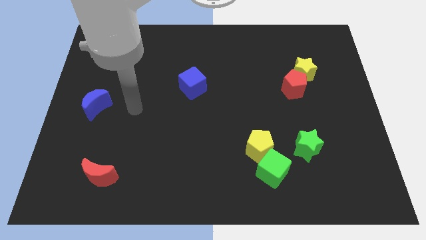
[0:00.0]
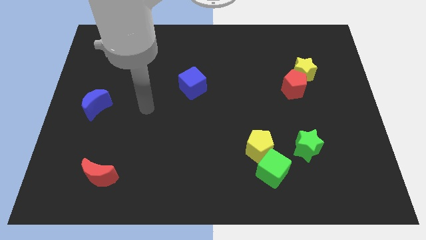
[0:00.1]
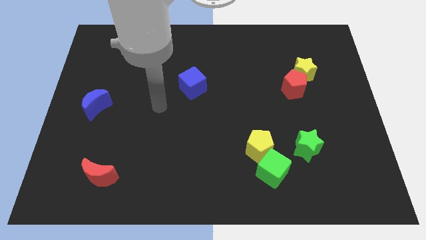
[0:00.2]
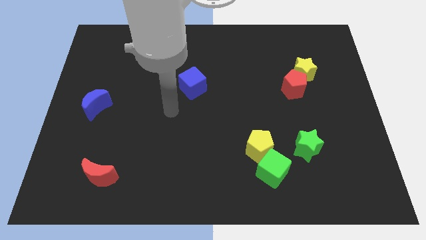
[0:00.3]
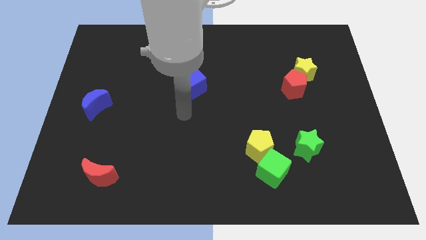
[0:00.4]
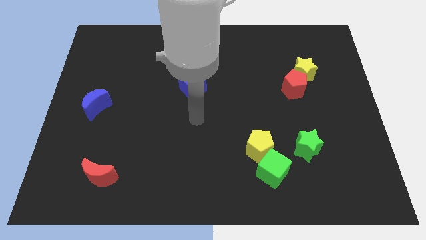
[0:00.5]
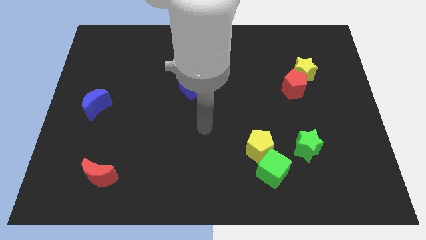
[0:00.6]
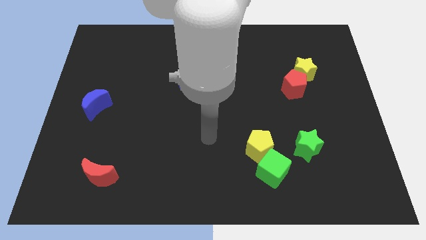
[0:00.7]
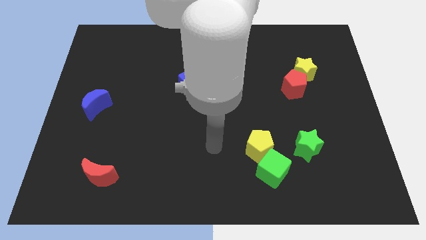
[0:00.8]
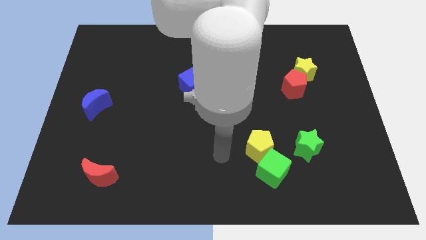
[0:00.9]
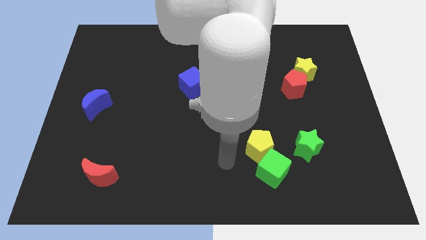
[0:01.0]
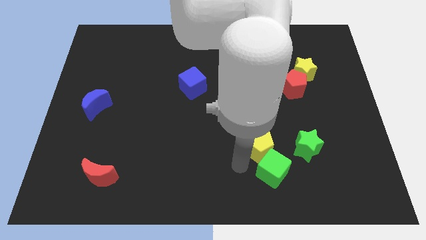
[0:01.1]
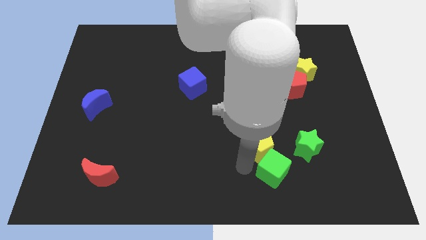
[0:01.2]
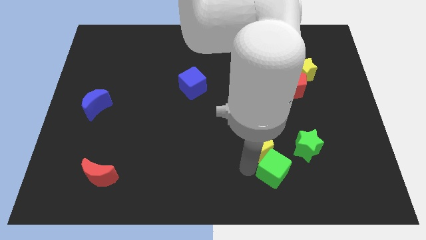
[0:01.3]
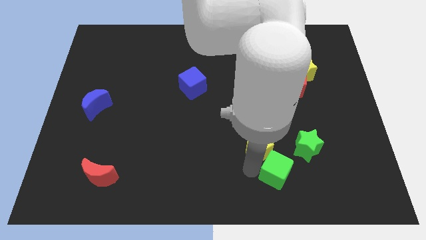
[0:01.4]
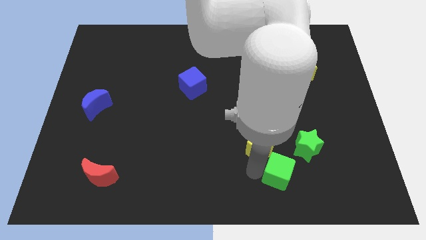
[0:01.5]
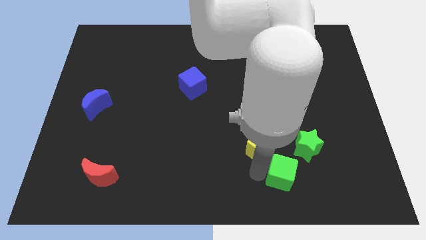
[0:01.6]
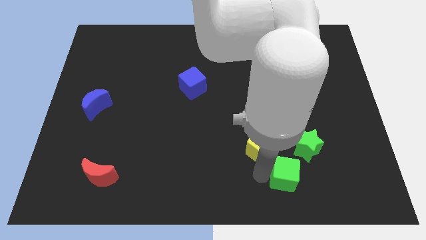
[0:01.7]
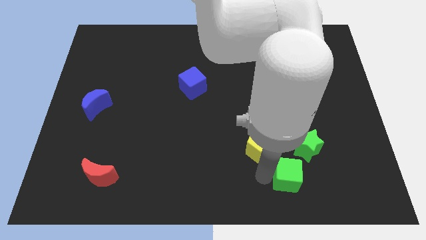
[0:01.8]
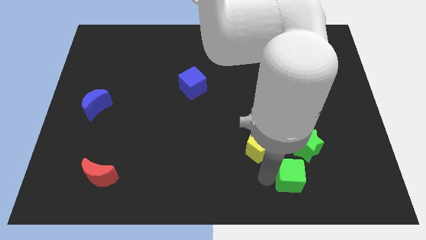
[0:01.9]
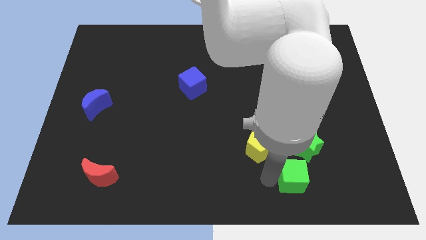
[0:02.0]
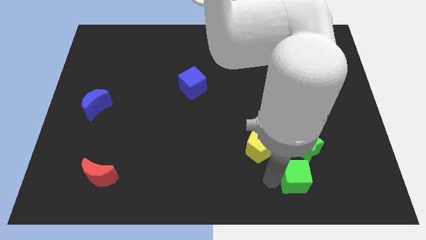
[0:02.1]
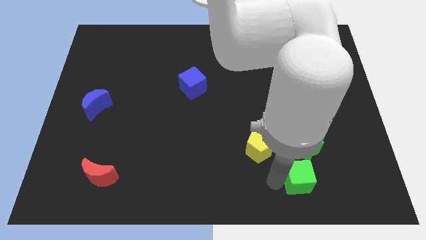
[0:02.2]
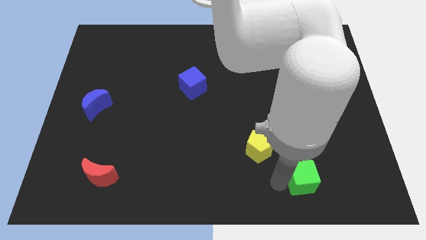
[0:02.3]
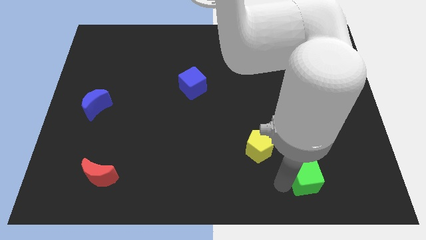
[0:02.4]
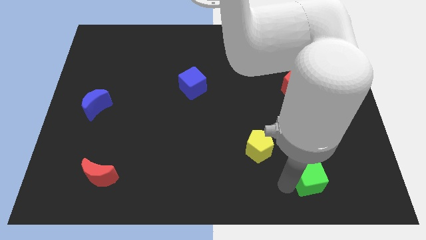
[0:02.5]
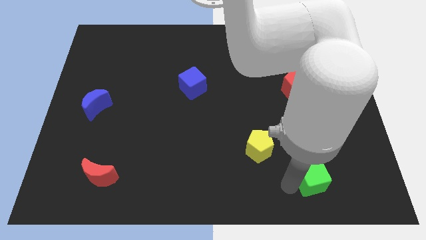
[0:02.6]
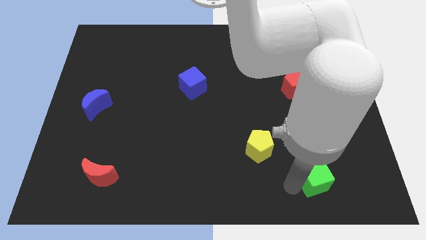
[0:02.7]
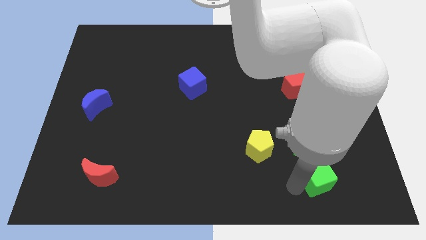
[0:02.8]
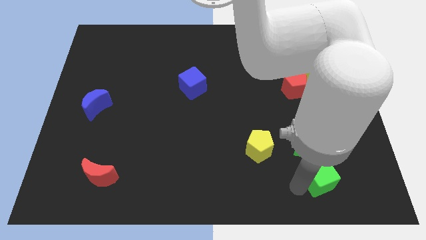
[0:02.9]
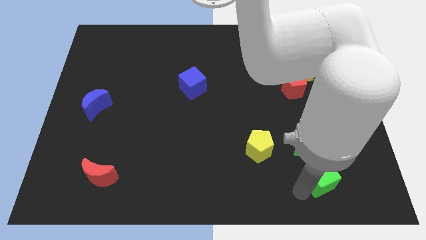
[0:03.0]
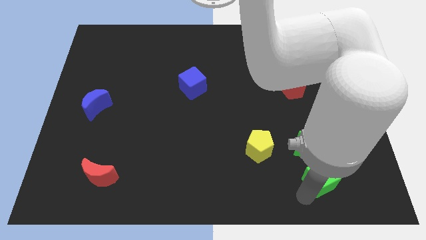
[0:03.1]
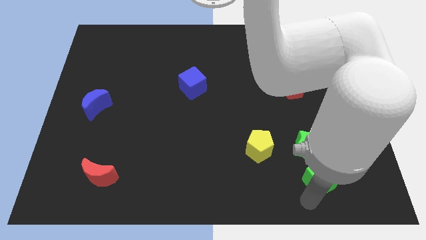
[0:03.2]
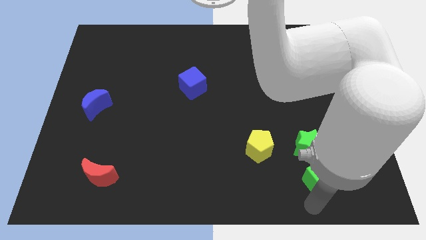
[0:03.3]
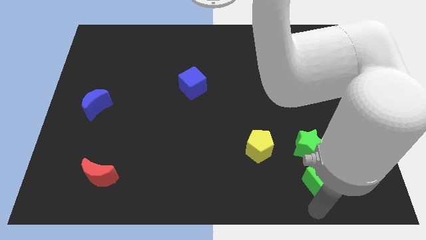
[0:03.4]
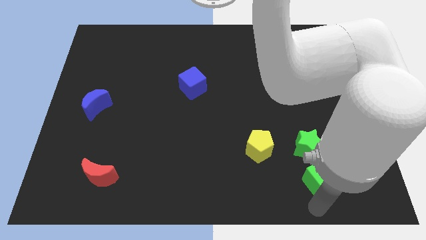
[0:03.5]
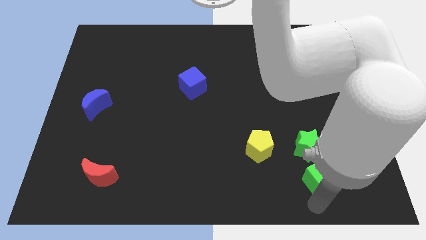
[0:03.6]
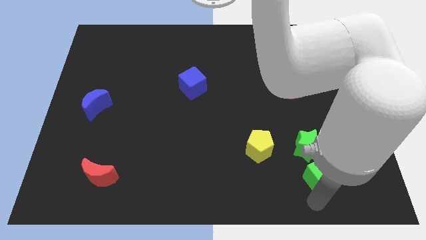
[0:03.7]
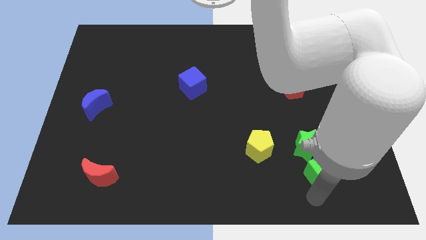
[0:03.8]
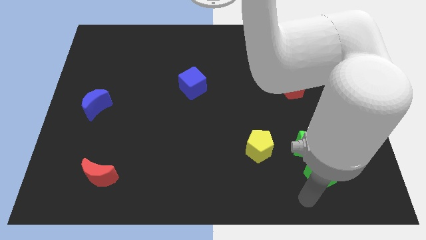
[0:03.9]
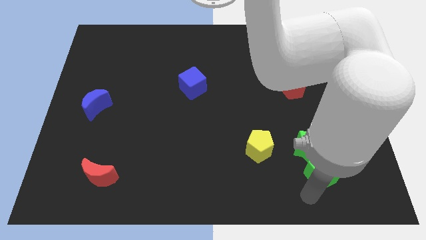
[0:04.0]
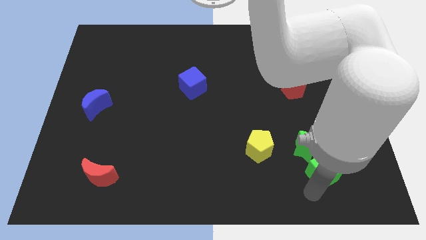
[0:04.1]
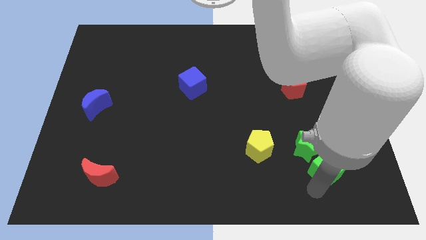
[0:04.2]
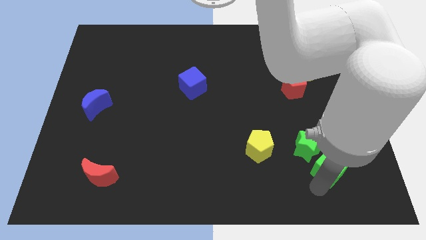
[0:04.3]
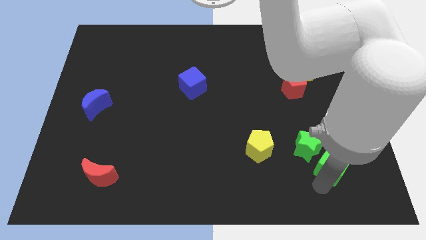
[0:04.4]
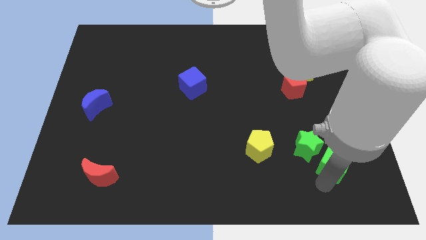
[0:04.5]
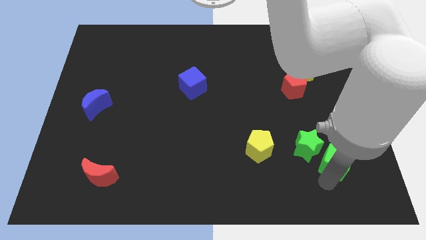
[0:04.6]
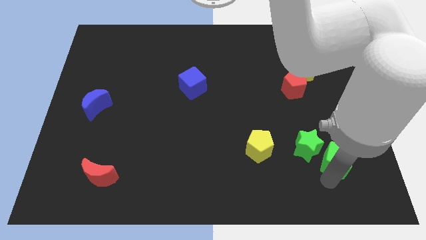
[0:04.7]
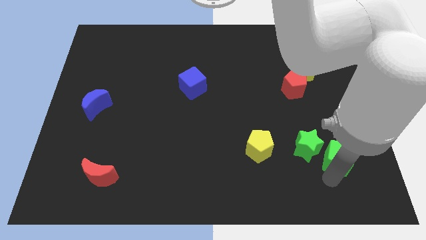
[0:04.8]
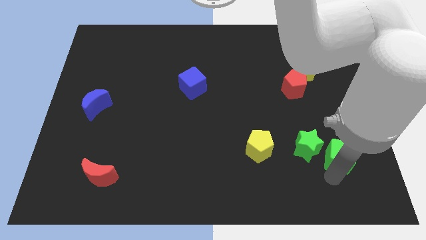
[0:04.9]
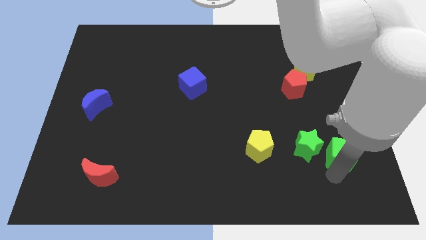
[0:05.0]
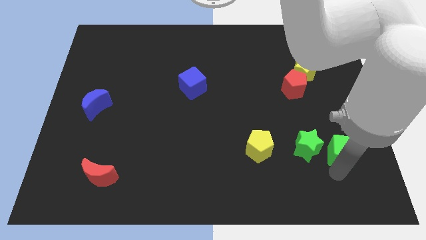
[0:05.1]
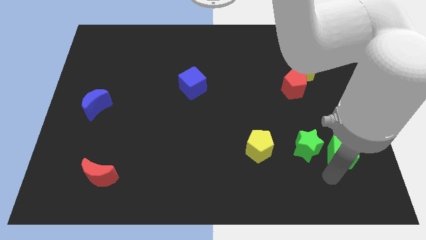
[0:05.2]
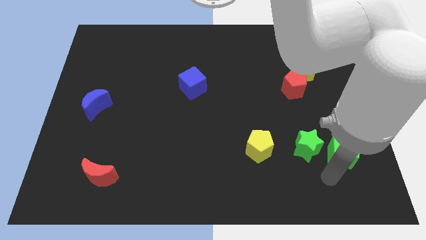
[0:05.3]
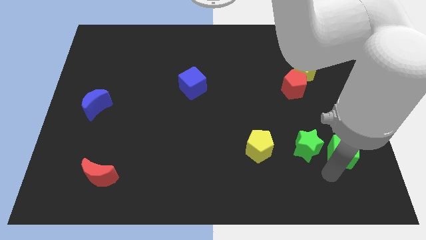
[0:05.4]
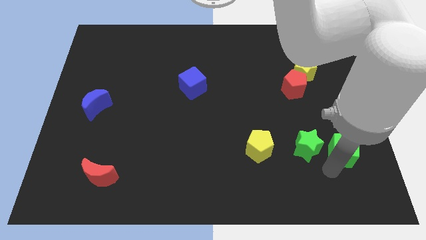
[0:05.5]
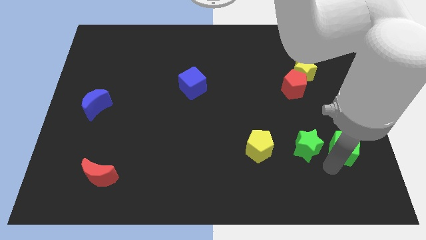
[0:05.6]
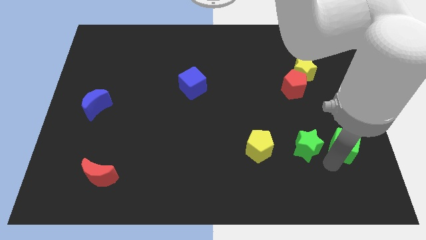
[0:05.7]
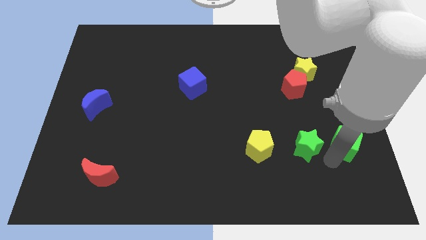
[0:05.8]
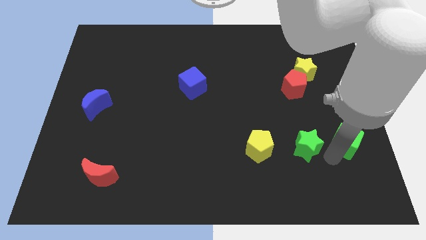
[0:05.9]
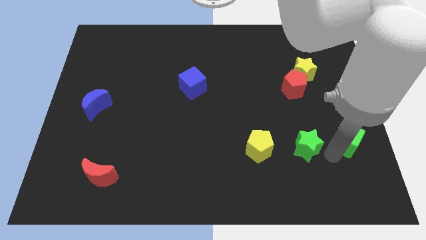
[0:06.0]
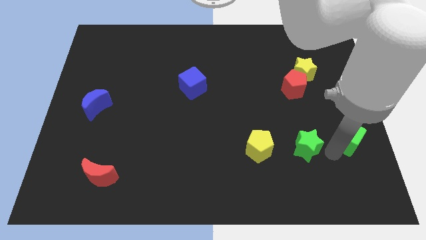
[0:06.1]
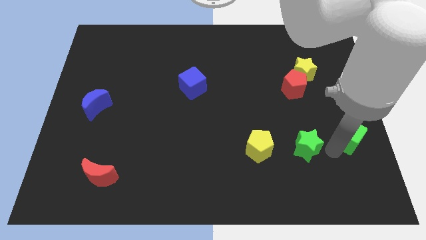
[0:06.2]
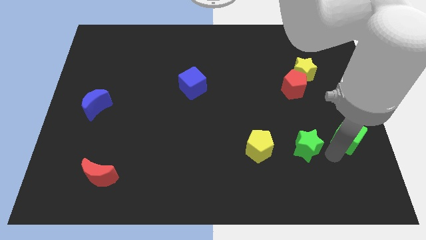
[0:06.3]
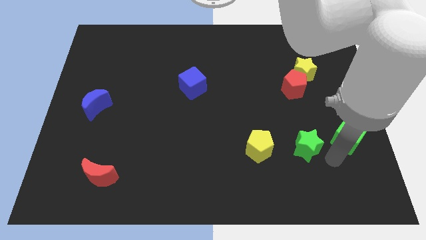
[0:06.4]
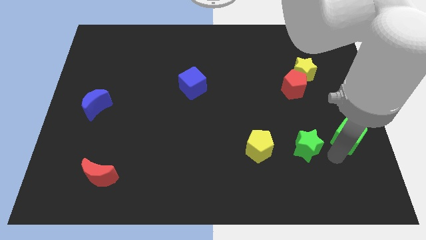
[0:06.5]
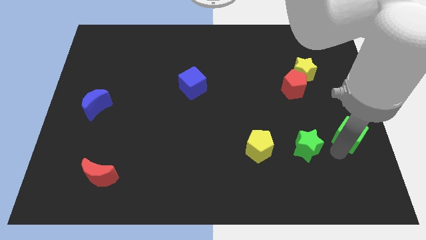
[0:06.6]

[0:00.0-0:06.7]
slide the green cube to the right side of the board
